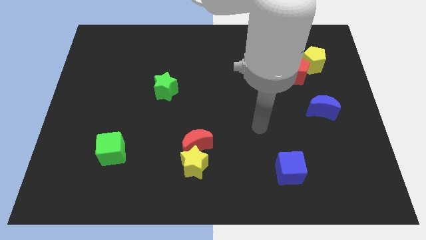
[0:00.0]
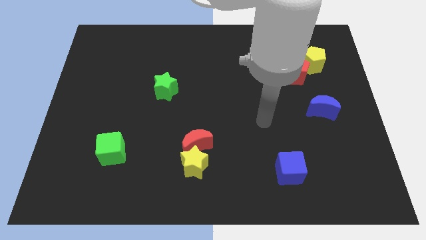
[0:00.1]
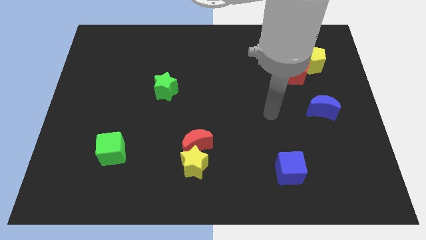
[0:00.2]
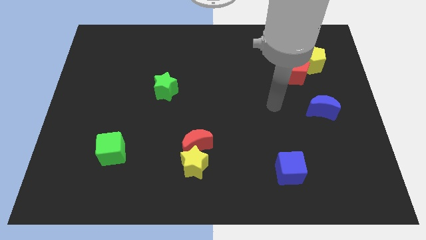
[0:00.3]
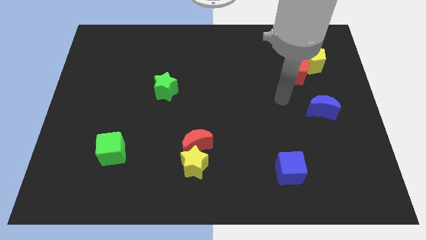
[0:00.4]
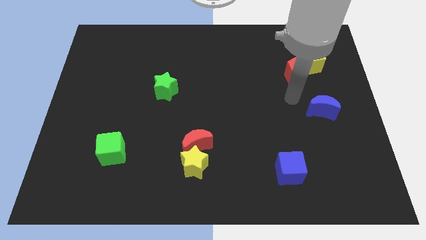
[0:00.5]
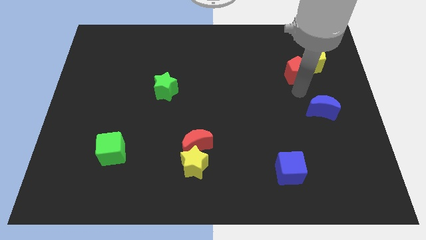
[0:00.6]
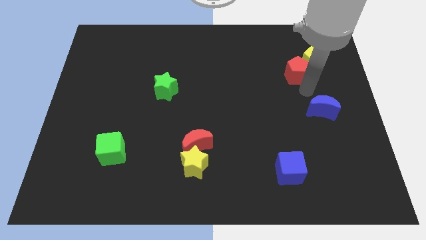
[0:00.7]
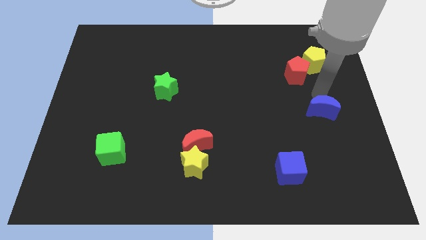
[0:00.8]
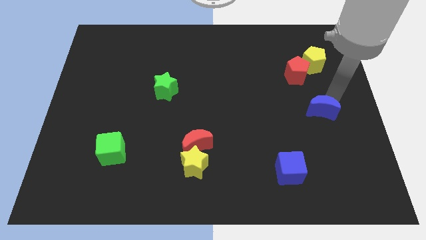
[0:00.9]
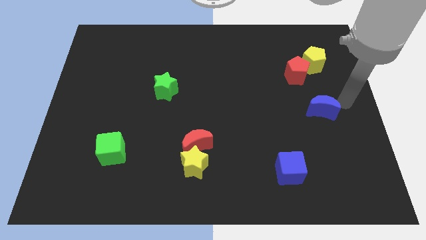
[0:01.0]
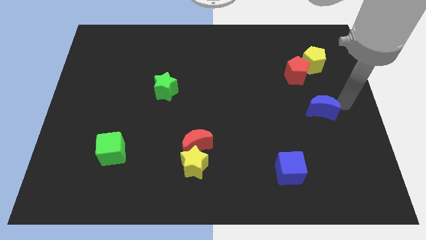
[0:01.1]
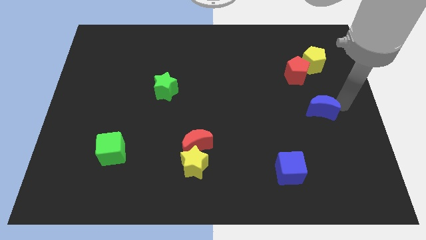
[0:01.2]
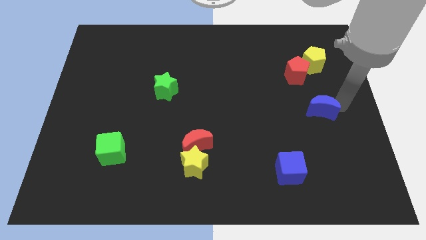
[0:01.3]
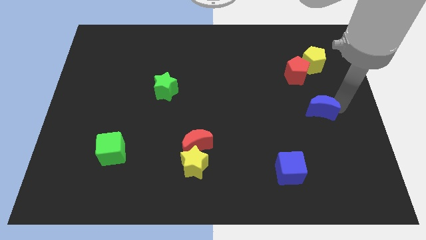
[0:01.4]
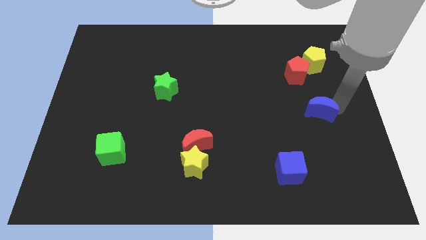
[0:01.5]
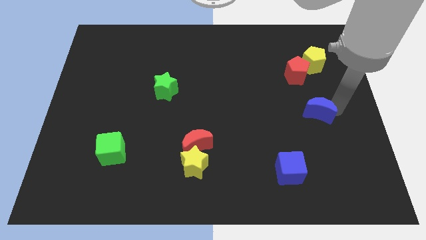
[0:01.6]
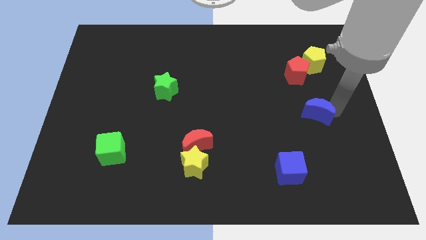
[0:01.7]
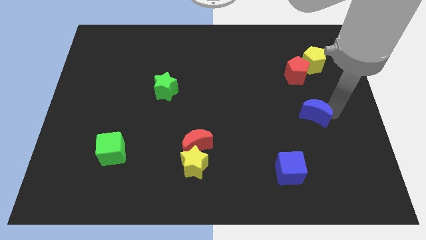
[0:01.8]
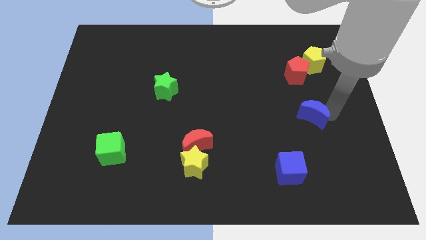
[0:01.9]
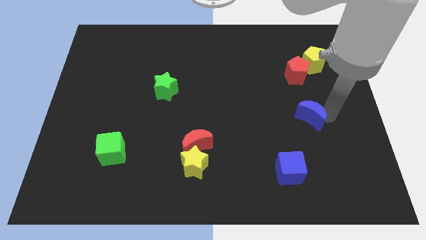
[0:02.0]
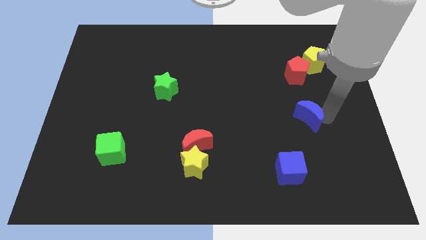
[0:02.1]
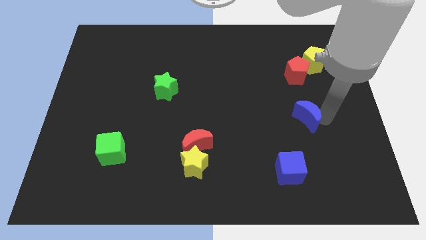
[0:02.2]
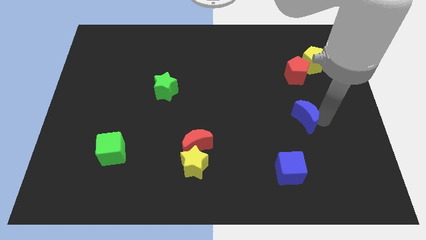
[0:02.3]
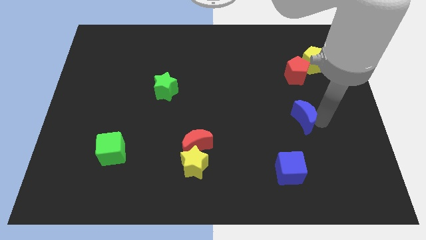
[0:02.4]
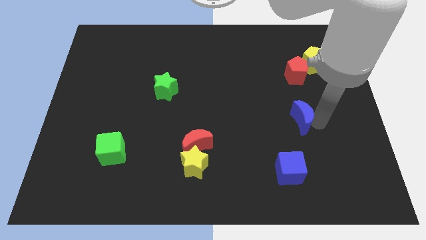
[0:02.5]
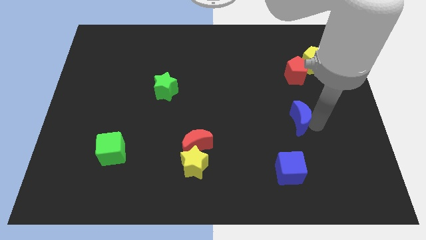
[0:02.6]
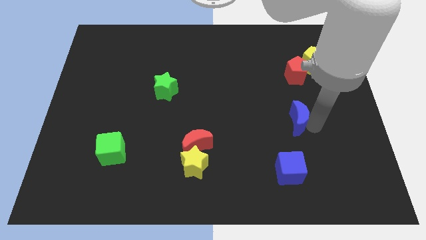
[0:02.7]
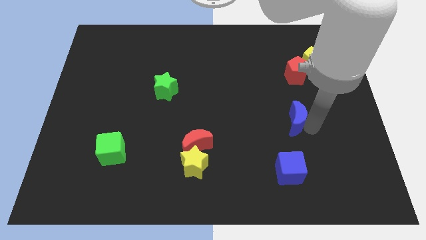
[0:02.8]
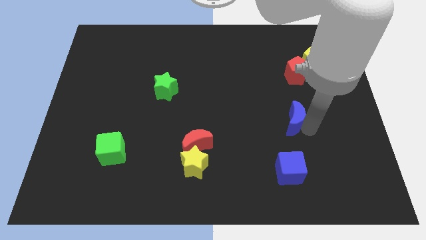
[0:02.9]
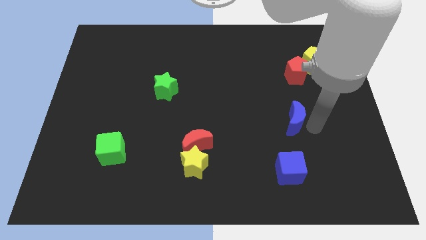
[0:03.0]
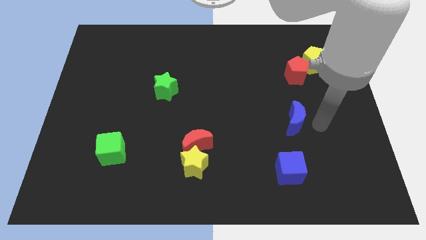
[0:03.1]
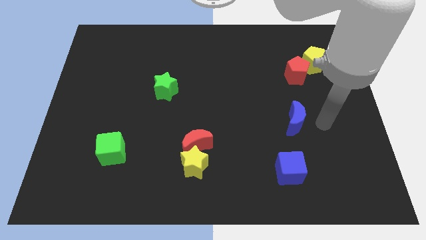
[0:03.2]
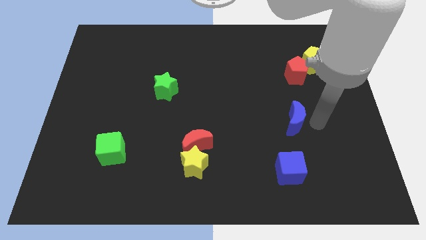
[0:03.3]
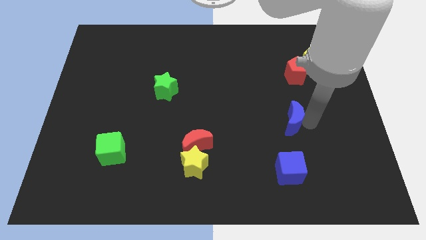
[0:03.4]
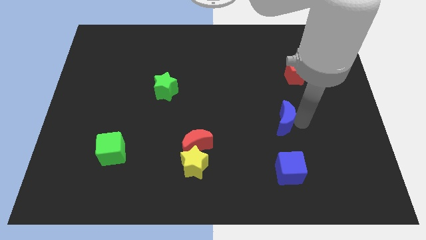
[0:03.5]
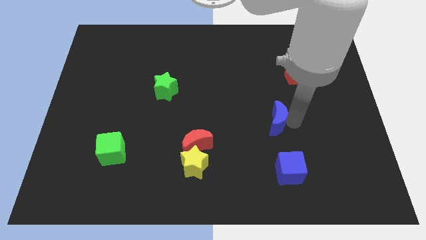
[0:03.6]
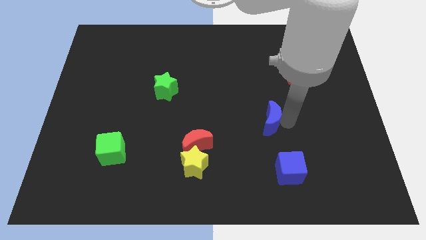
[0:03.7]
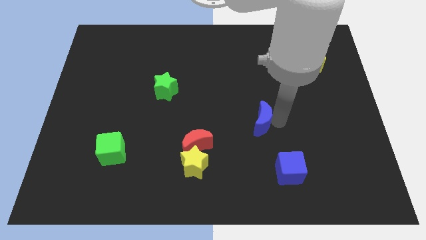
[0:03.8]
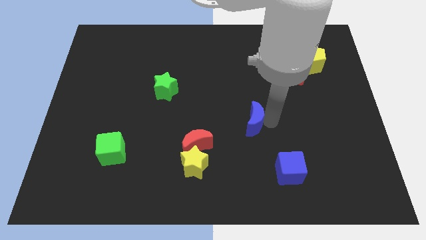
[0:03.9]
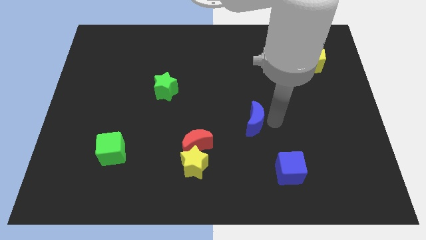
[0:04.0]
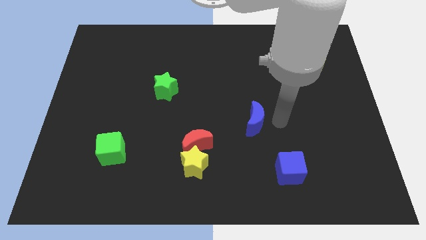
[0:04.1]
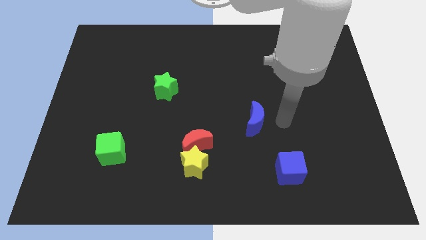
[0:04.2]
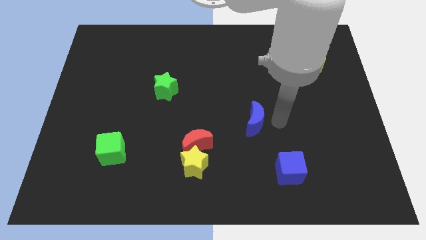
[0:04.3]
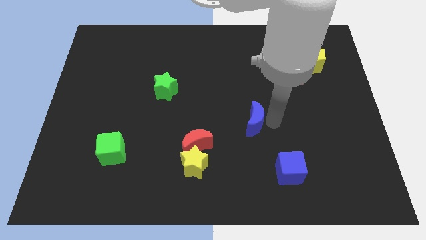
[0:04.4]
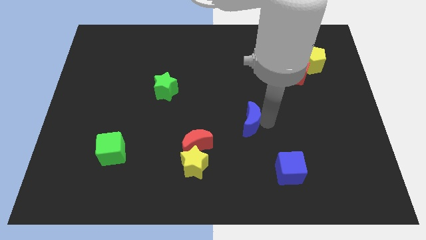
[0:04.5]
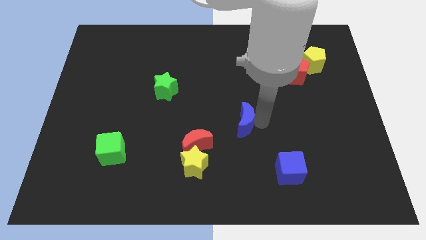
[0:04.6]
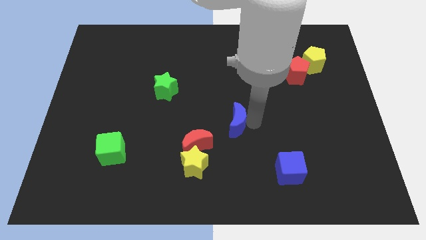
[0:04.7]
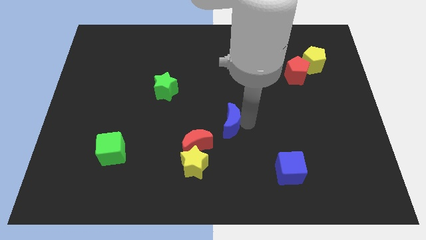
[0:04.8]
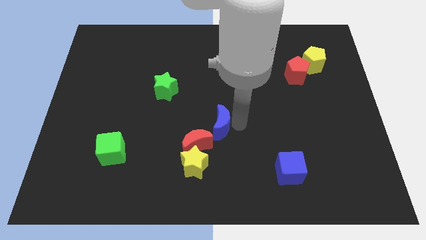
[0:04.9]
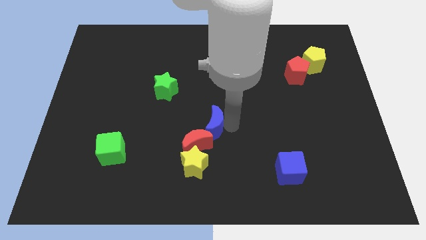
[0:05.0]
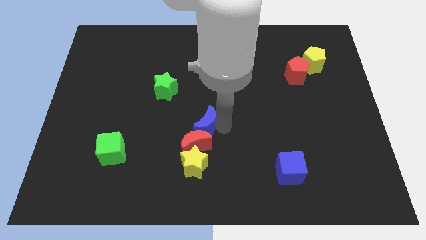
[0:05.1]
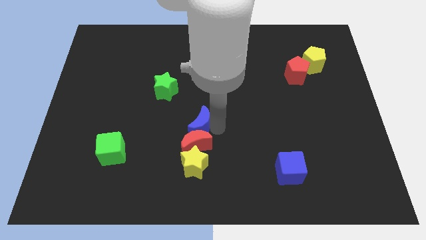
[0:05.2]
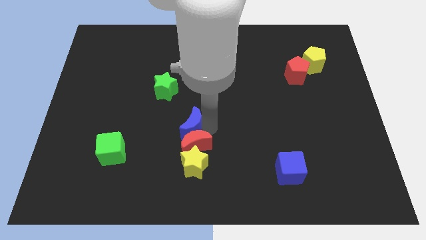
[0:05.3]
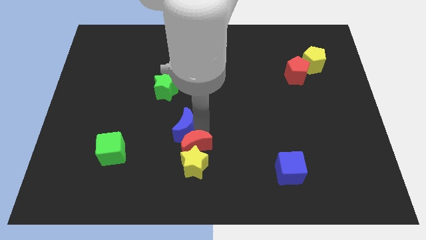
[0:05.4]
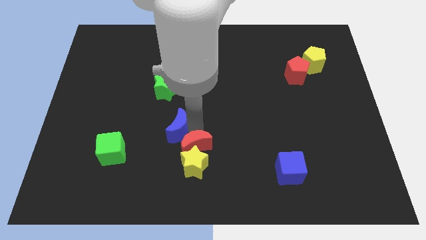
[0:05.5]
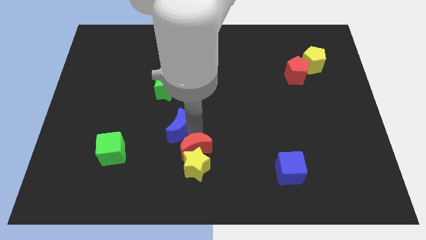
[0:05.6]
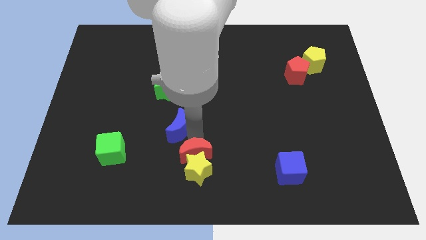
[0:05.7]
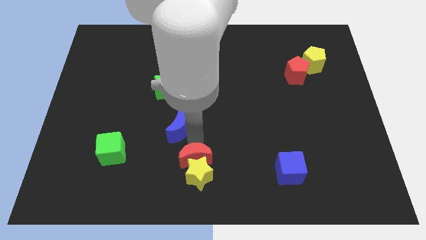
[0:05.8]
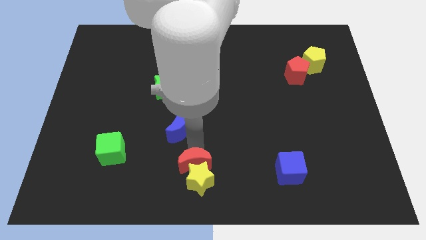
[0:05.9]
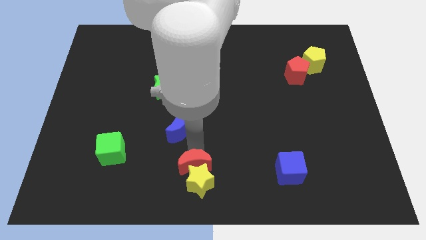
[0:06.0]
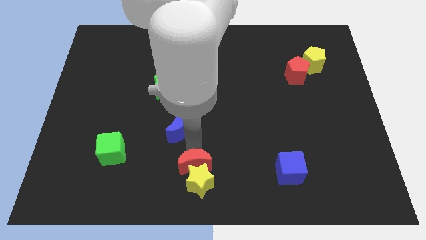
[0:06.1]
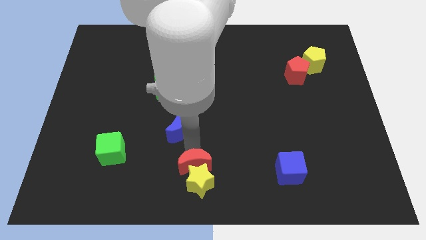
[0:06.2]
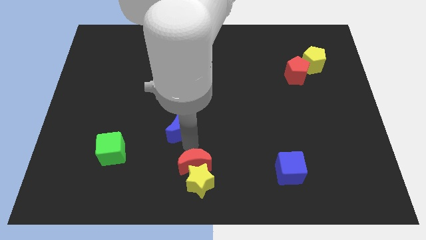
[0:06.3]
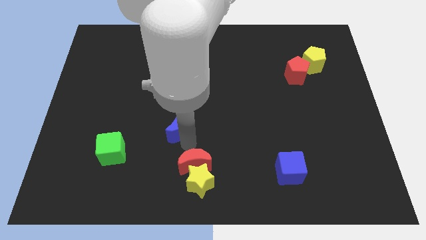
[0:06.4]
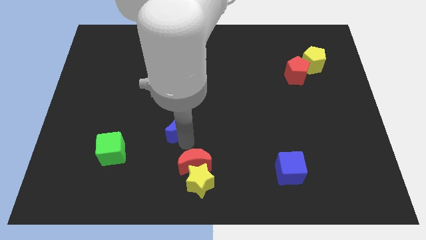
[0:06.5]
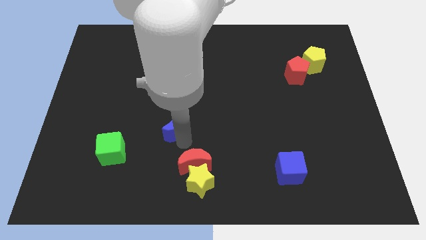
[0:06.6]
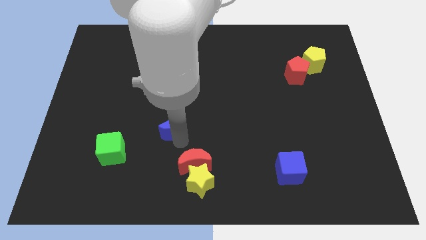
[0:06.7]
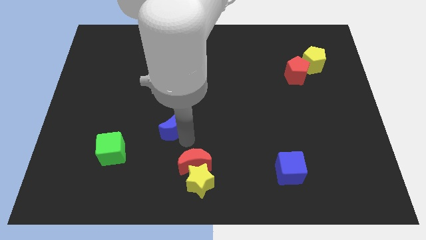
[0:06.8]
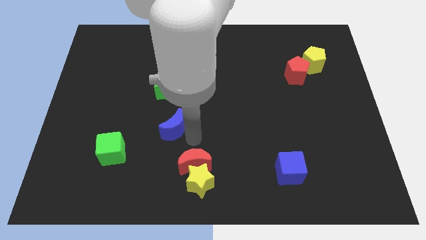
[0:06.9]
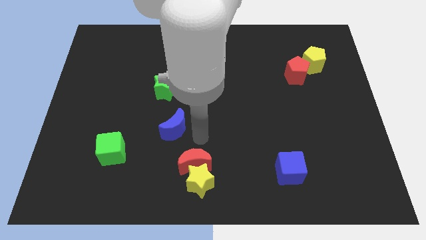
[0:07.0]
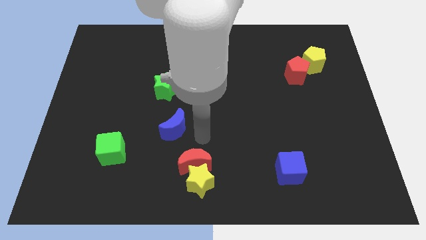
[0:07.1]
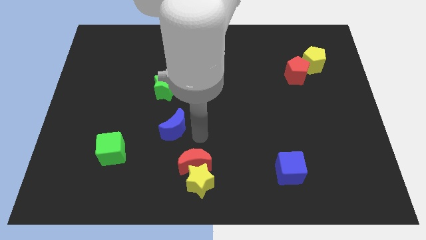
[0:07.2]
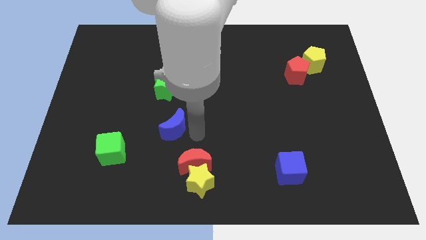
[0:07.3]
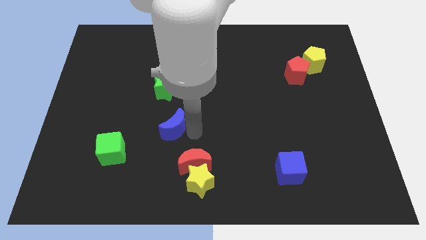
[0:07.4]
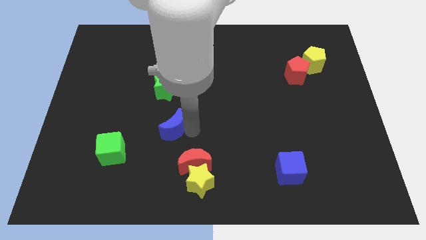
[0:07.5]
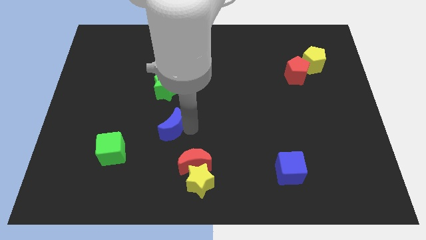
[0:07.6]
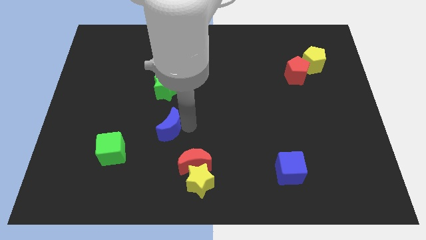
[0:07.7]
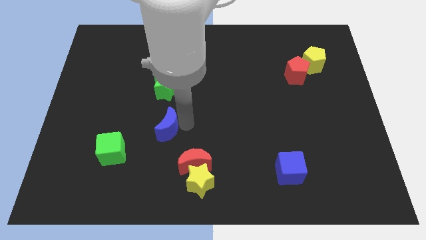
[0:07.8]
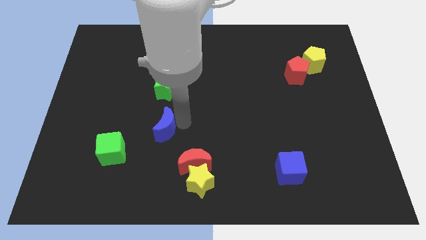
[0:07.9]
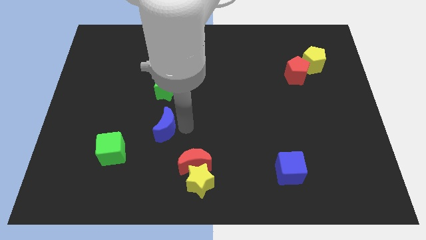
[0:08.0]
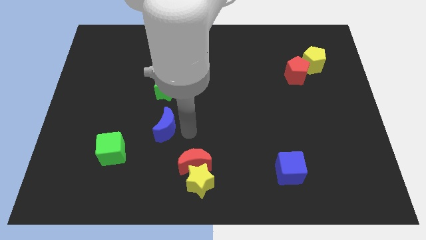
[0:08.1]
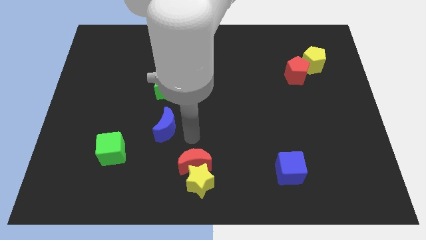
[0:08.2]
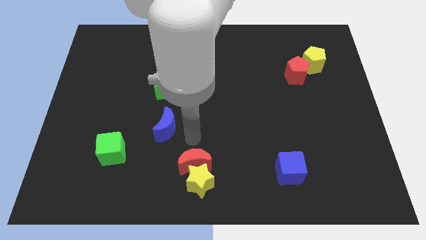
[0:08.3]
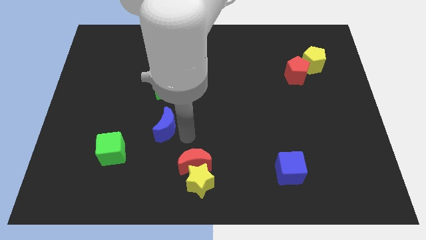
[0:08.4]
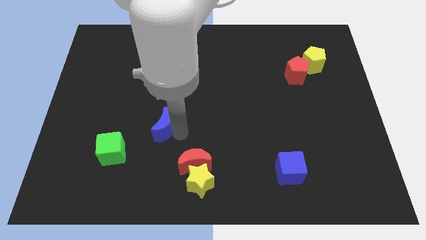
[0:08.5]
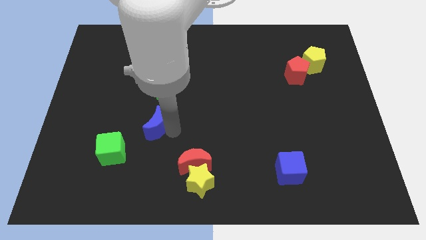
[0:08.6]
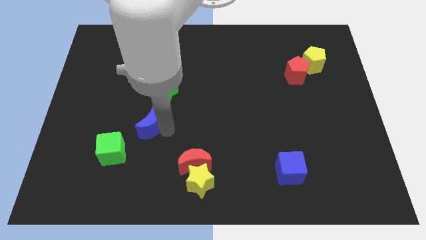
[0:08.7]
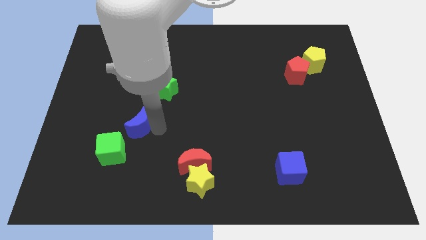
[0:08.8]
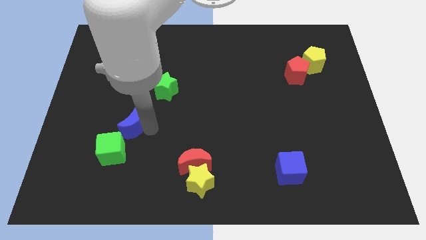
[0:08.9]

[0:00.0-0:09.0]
put the blue moon above the green cube
